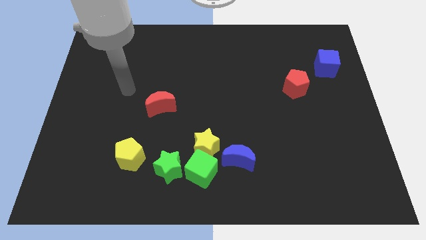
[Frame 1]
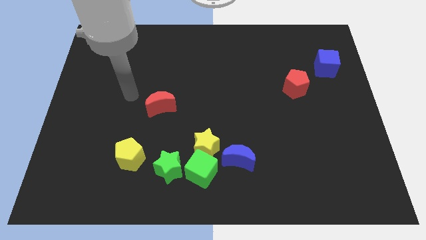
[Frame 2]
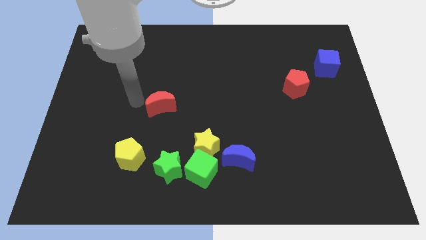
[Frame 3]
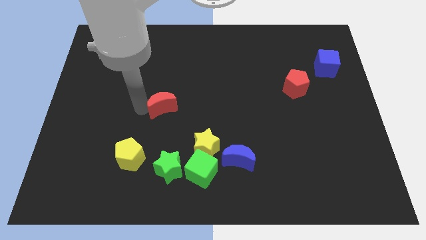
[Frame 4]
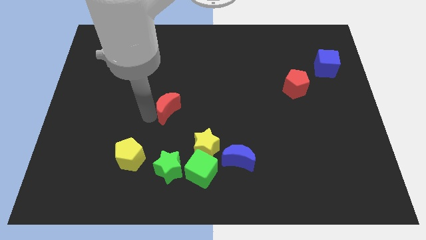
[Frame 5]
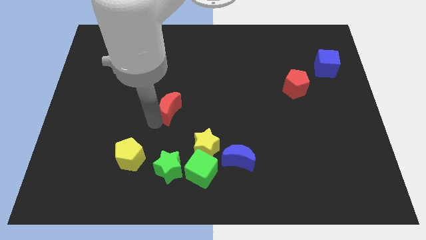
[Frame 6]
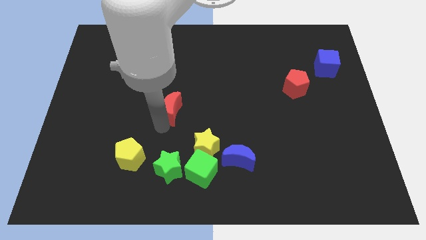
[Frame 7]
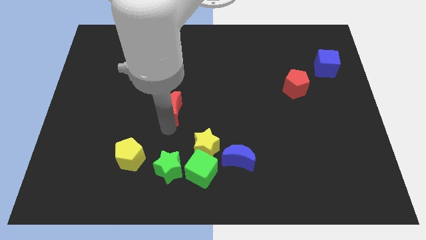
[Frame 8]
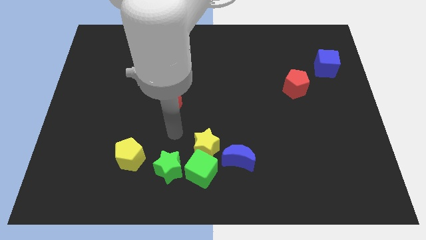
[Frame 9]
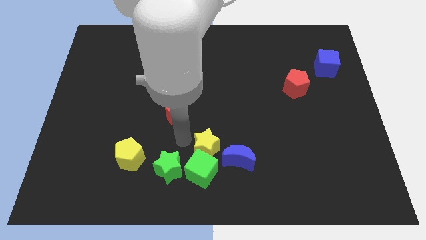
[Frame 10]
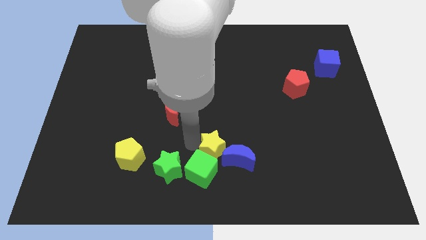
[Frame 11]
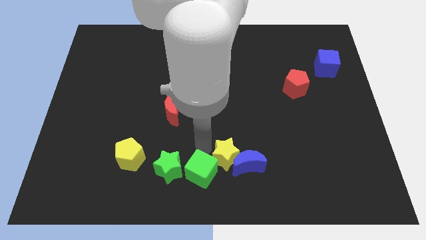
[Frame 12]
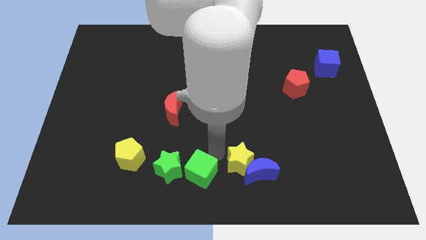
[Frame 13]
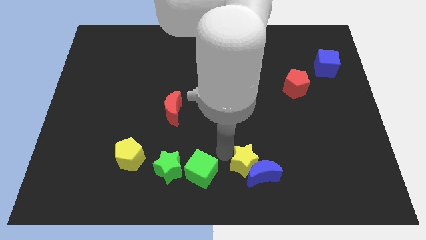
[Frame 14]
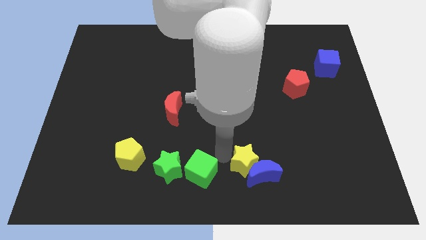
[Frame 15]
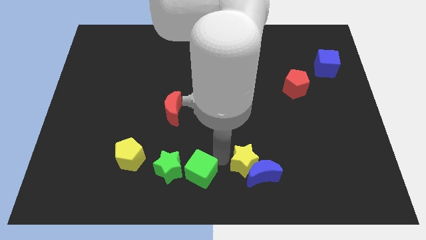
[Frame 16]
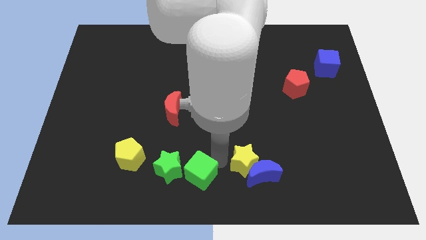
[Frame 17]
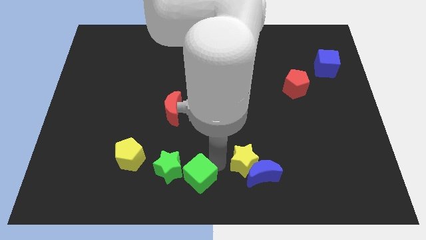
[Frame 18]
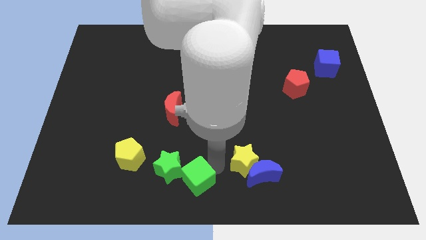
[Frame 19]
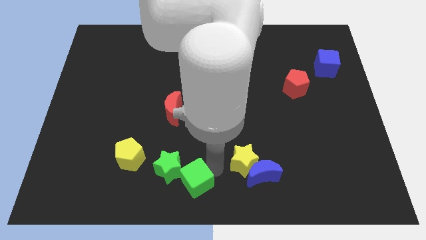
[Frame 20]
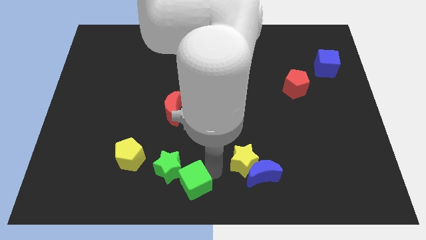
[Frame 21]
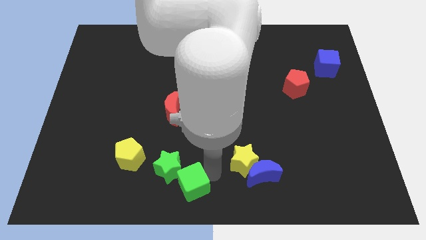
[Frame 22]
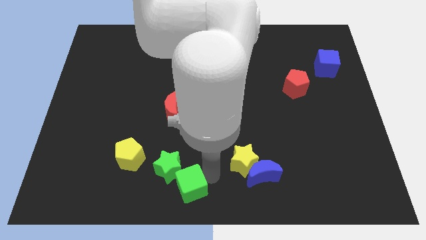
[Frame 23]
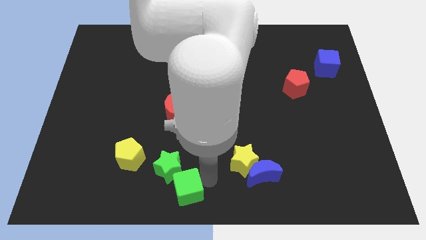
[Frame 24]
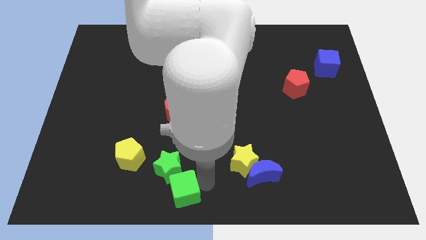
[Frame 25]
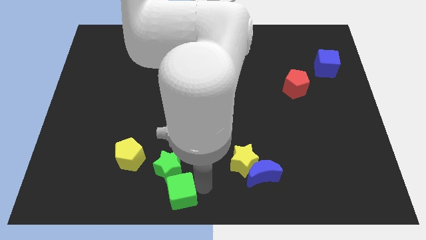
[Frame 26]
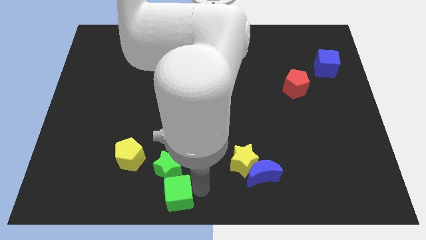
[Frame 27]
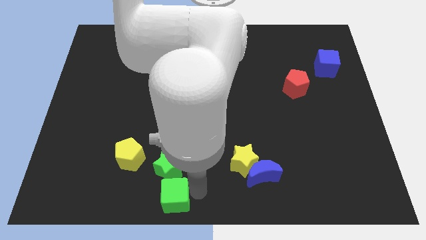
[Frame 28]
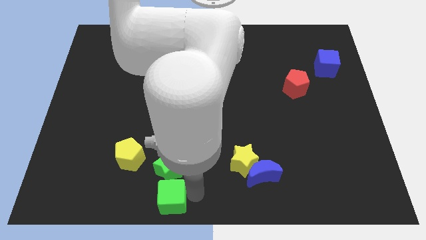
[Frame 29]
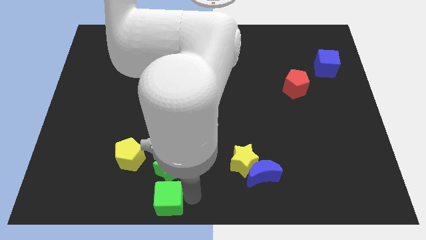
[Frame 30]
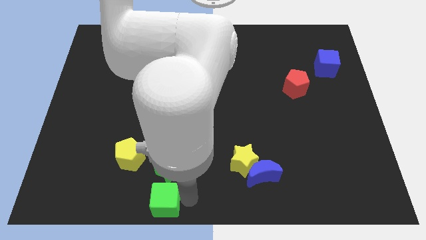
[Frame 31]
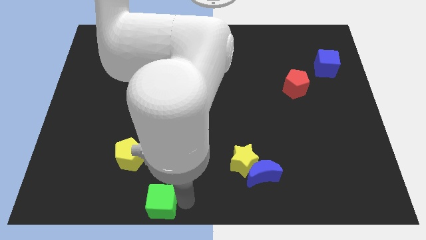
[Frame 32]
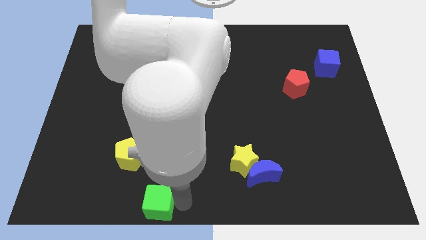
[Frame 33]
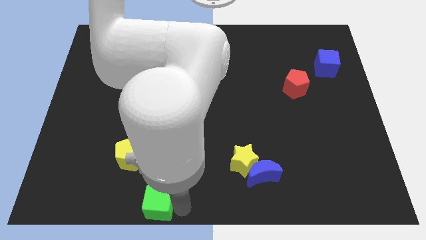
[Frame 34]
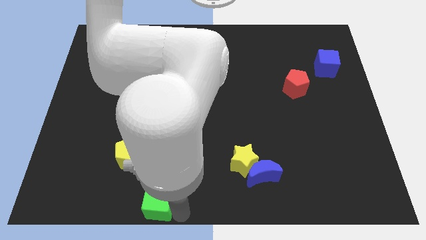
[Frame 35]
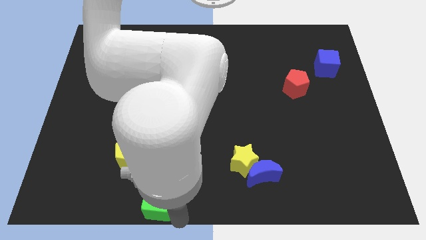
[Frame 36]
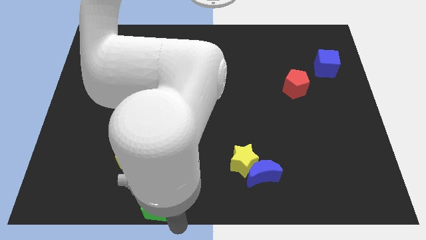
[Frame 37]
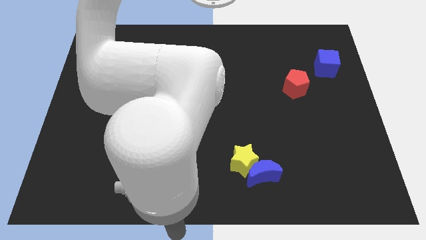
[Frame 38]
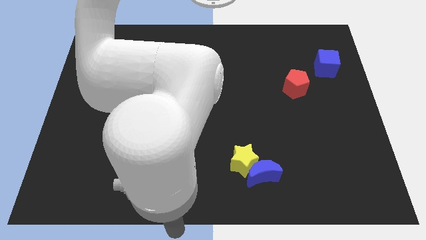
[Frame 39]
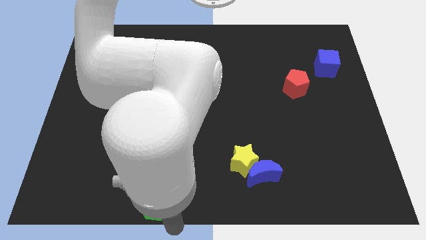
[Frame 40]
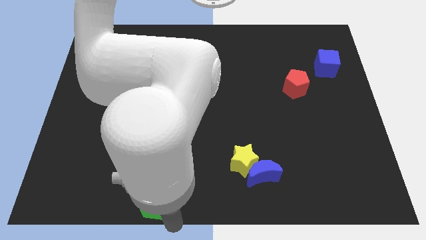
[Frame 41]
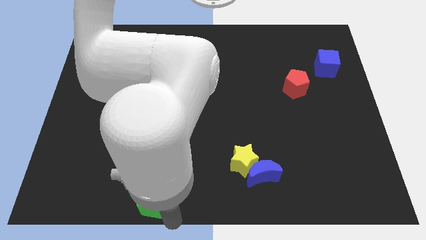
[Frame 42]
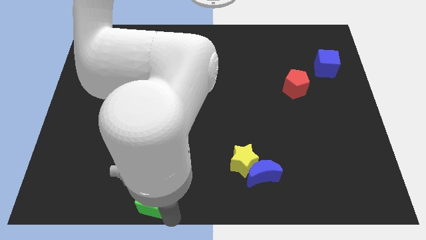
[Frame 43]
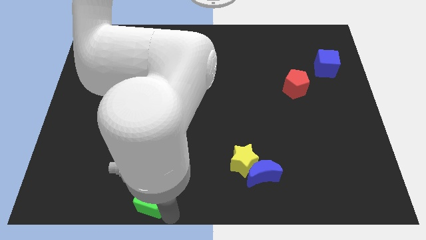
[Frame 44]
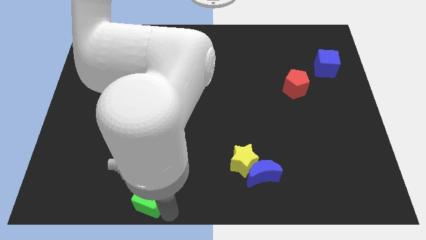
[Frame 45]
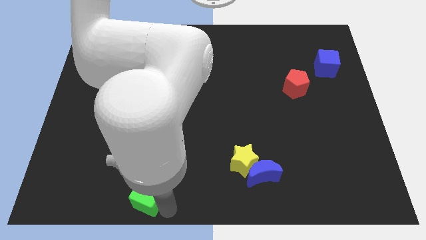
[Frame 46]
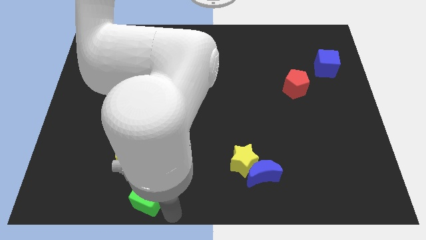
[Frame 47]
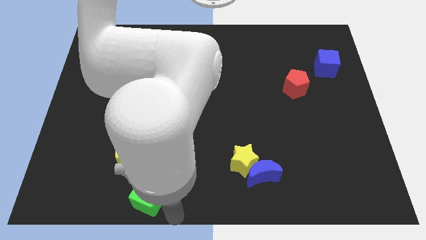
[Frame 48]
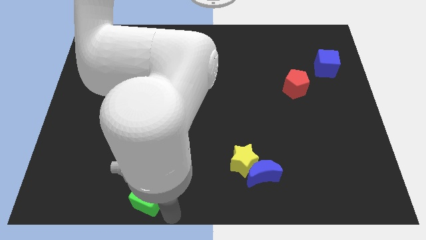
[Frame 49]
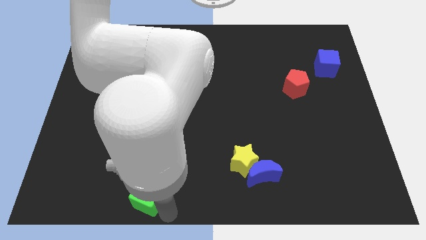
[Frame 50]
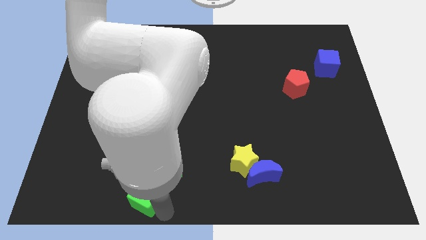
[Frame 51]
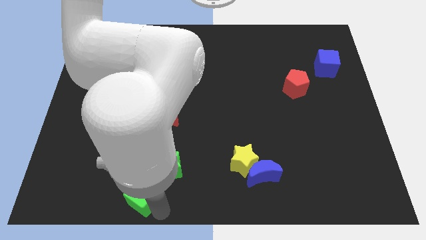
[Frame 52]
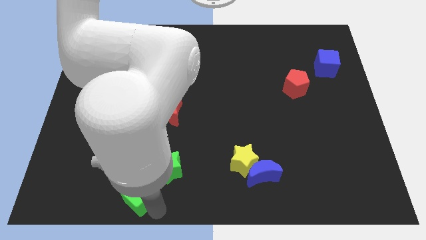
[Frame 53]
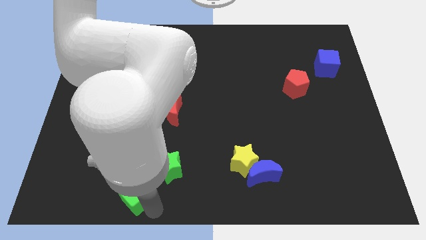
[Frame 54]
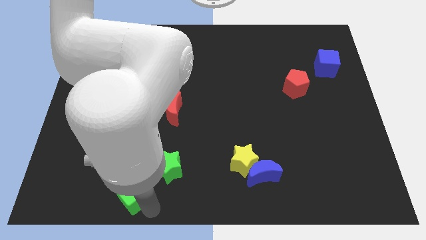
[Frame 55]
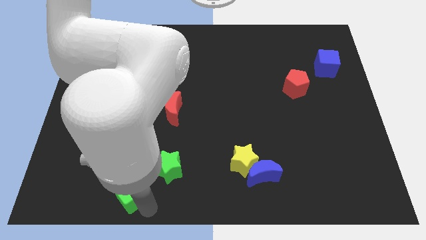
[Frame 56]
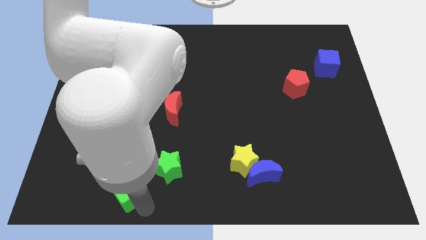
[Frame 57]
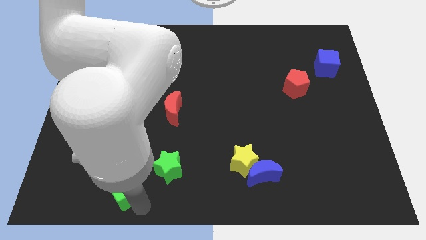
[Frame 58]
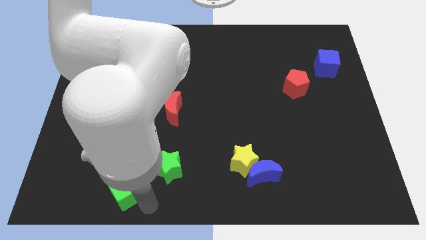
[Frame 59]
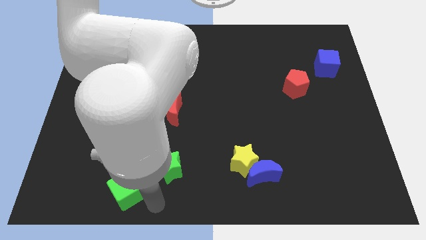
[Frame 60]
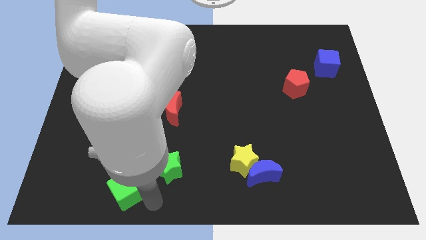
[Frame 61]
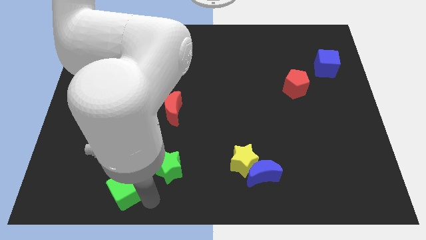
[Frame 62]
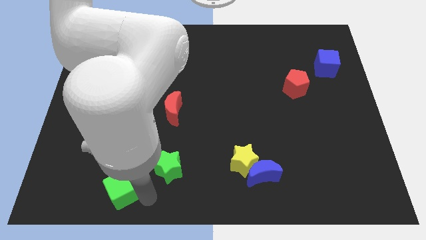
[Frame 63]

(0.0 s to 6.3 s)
push the green cube to the bottom left side of the yellow pentagon

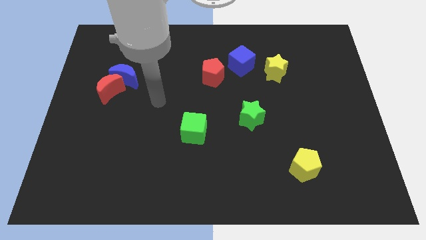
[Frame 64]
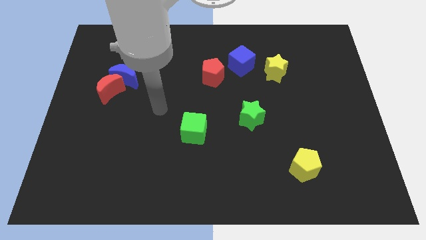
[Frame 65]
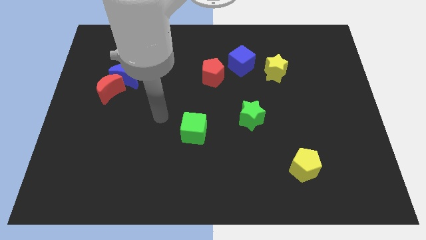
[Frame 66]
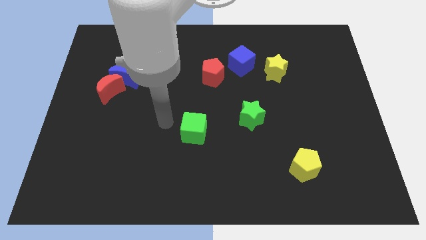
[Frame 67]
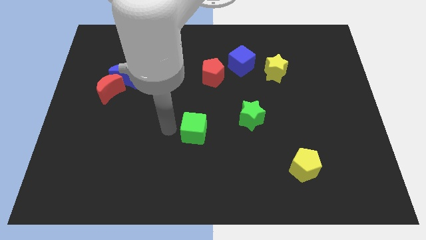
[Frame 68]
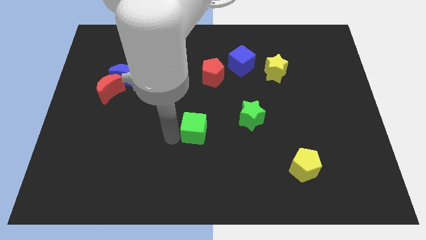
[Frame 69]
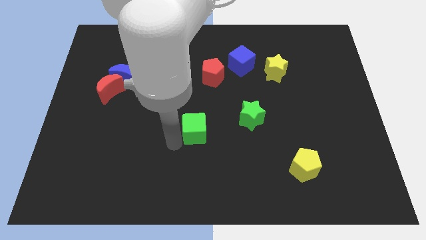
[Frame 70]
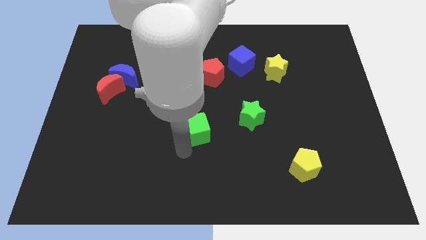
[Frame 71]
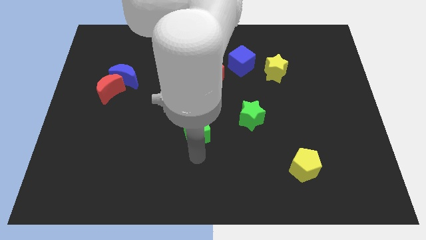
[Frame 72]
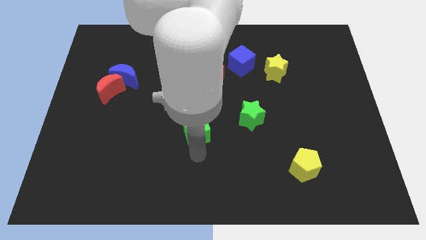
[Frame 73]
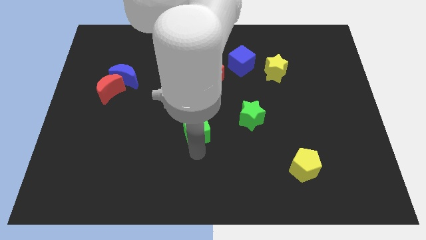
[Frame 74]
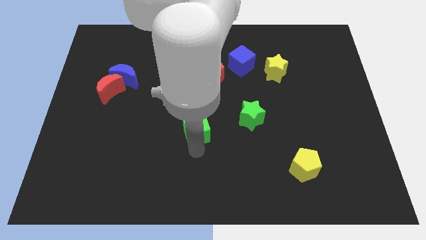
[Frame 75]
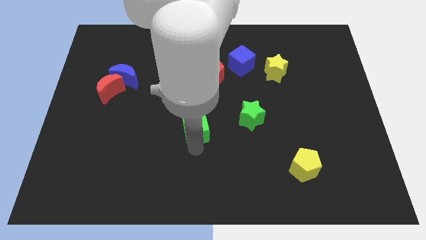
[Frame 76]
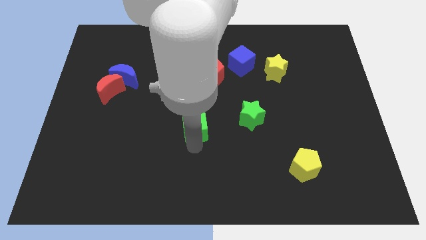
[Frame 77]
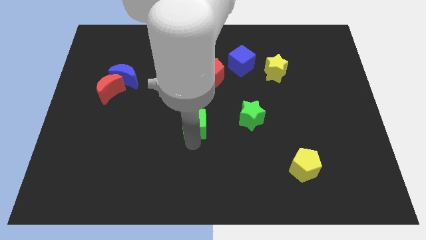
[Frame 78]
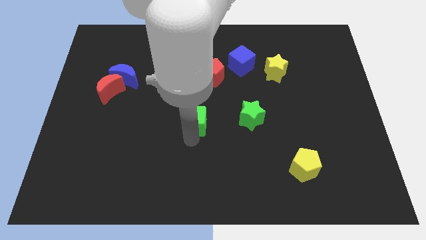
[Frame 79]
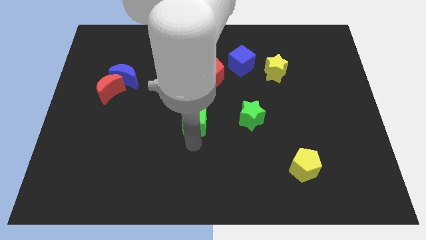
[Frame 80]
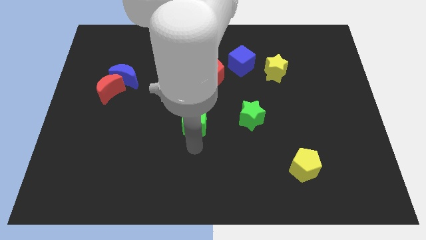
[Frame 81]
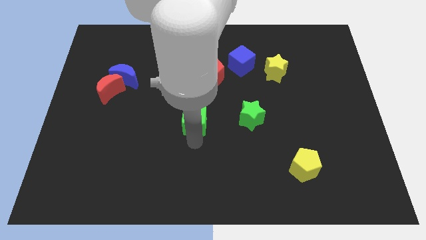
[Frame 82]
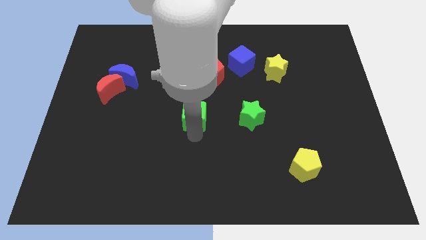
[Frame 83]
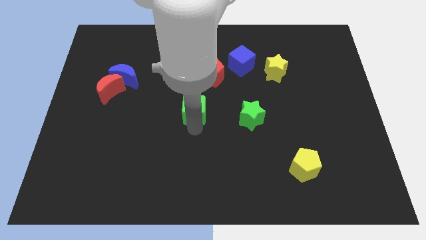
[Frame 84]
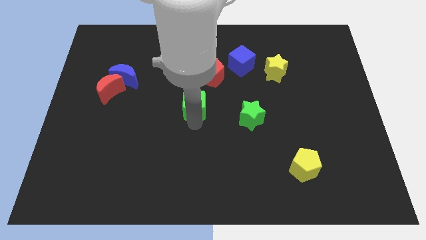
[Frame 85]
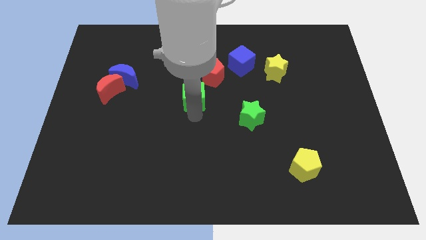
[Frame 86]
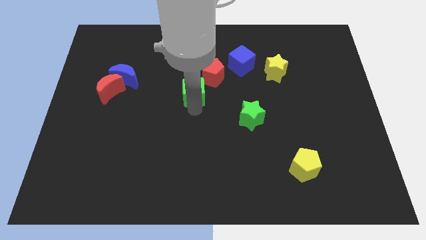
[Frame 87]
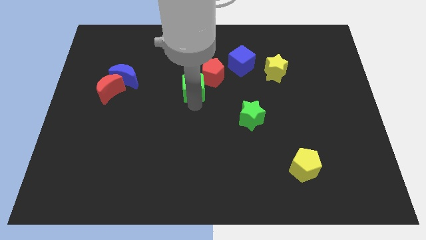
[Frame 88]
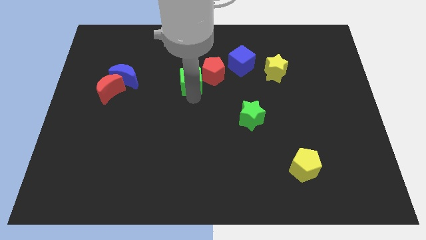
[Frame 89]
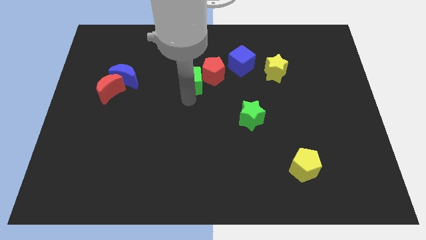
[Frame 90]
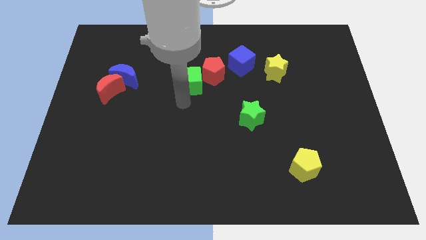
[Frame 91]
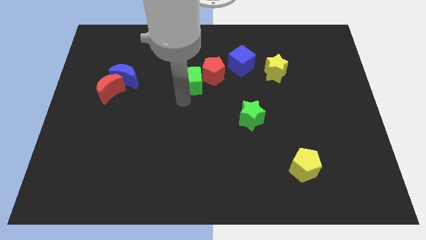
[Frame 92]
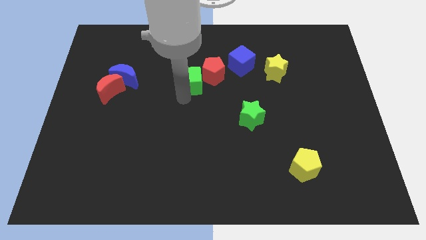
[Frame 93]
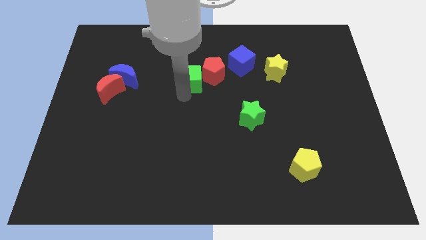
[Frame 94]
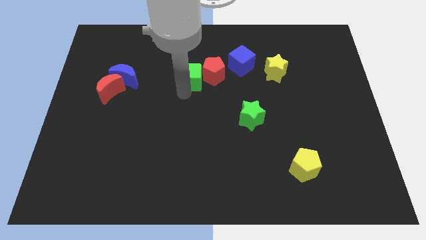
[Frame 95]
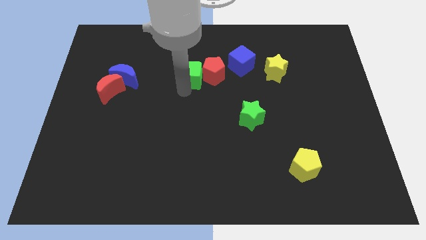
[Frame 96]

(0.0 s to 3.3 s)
slide the green cube to the left of the blue cube
